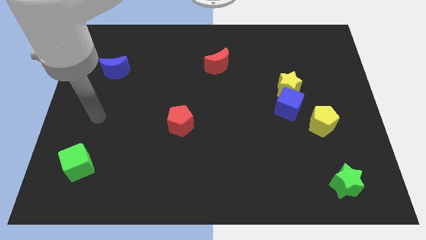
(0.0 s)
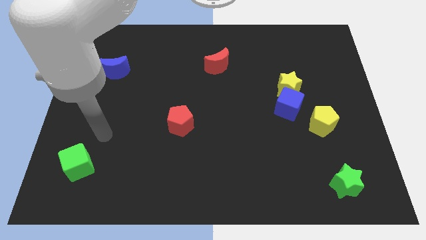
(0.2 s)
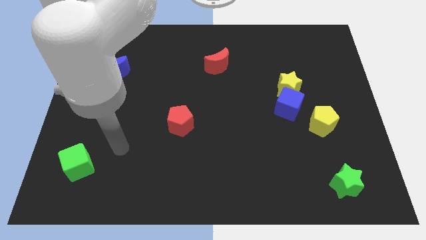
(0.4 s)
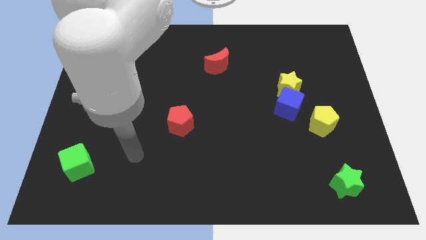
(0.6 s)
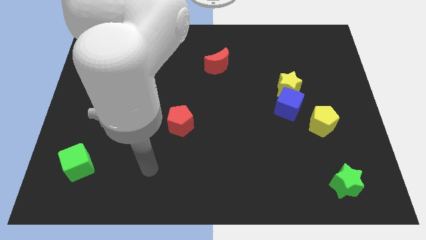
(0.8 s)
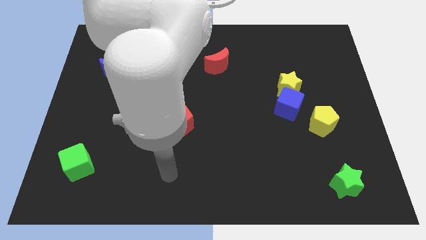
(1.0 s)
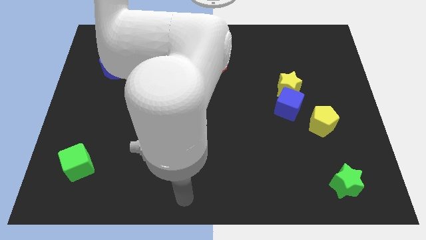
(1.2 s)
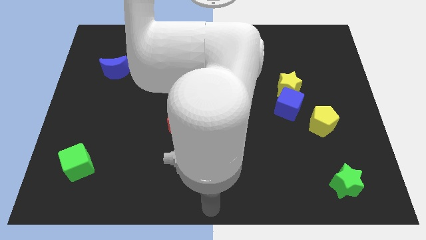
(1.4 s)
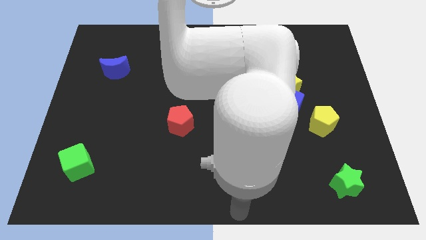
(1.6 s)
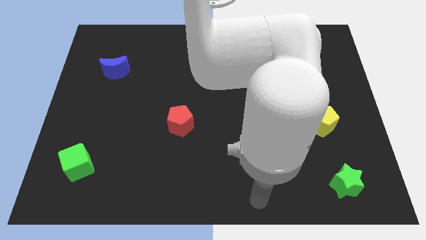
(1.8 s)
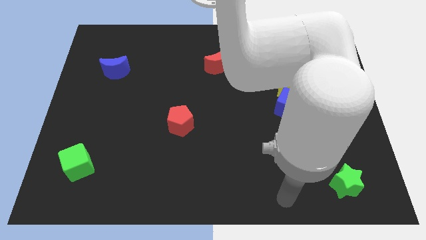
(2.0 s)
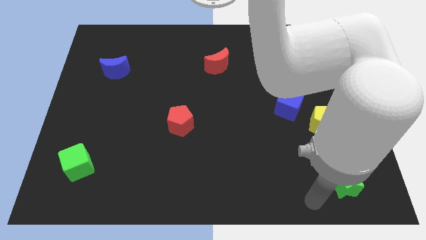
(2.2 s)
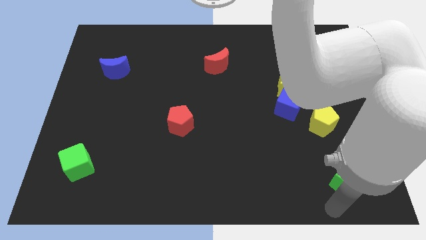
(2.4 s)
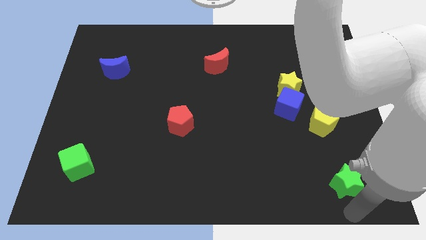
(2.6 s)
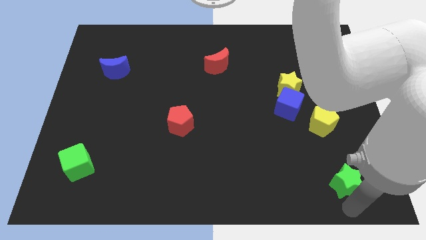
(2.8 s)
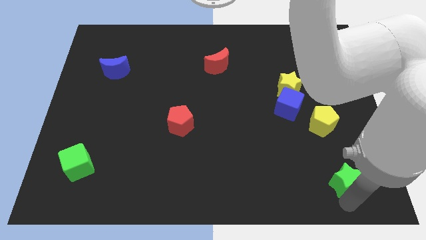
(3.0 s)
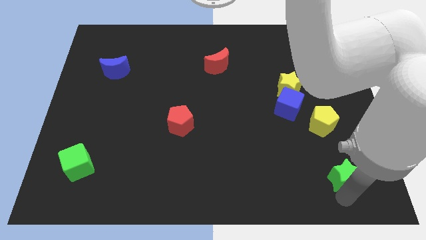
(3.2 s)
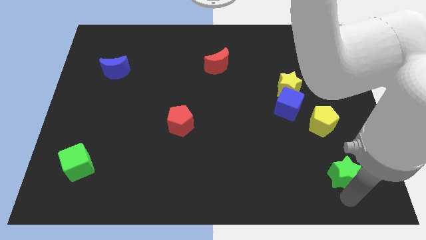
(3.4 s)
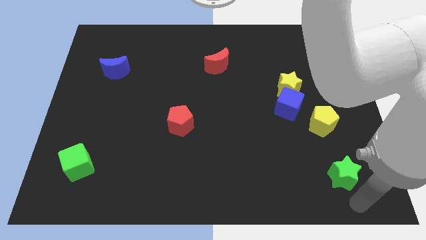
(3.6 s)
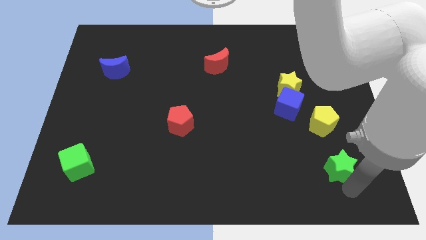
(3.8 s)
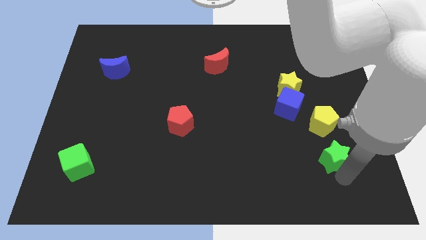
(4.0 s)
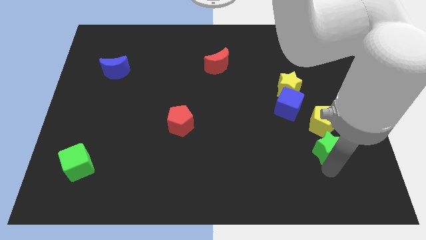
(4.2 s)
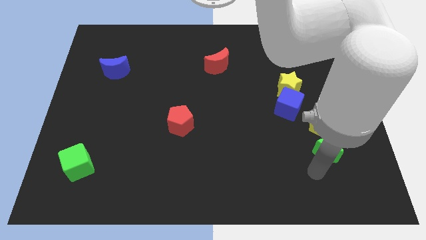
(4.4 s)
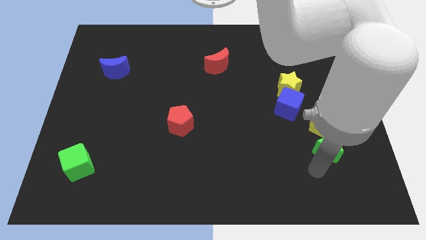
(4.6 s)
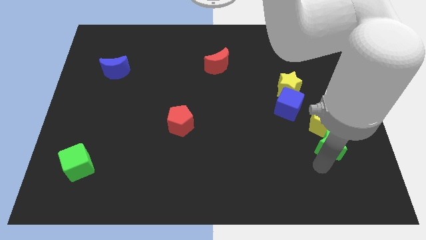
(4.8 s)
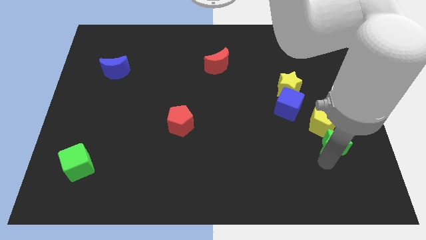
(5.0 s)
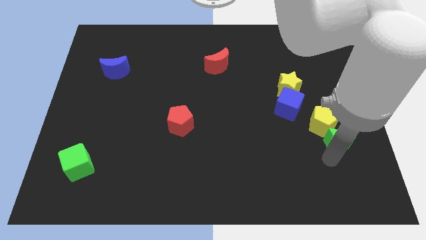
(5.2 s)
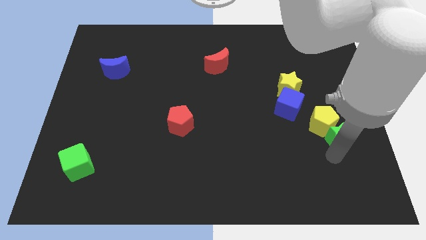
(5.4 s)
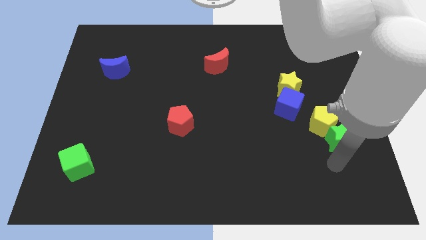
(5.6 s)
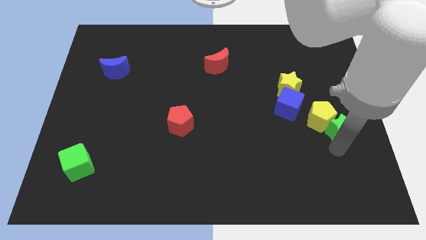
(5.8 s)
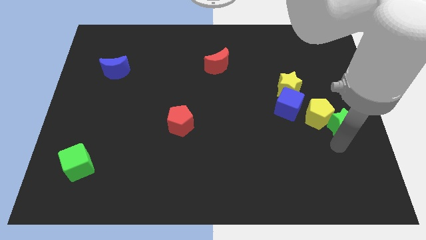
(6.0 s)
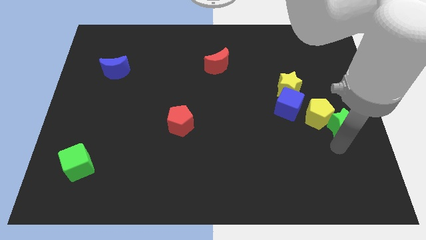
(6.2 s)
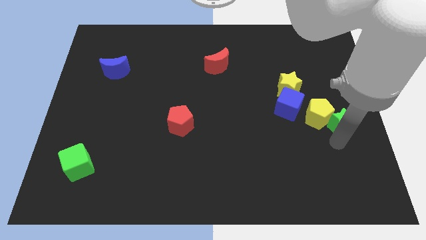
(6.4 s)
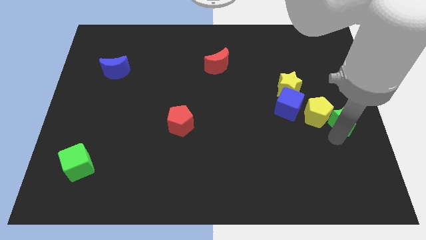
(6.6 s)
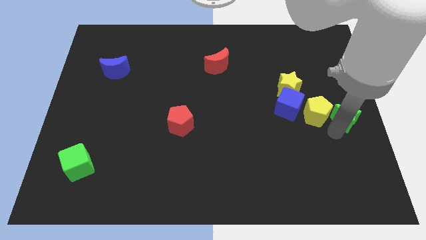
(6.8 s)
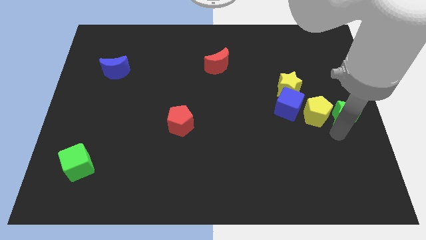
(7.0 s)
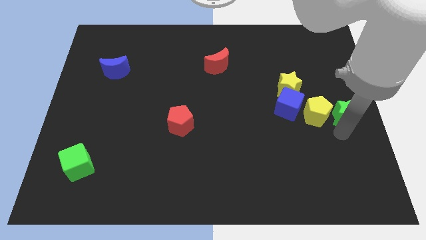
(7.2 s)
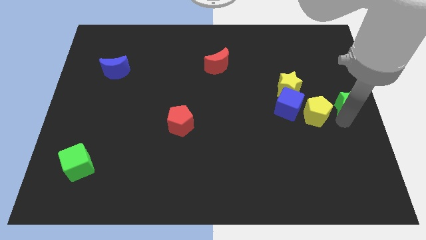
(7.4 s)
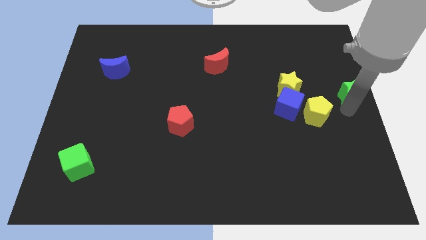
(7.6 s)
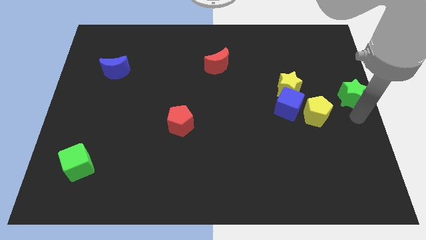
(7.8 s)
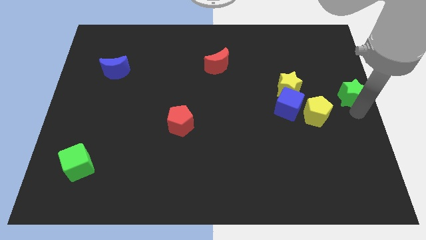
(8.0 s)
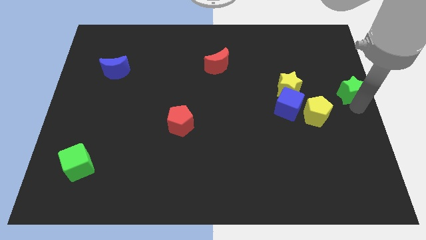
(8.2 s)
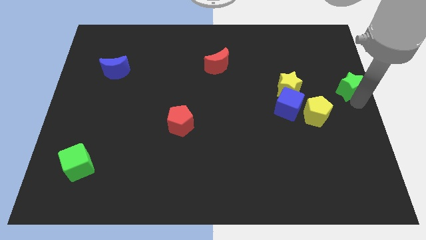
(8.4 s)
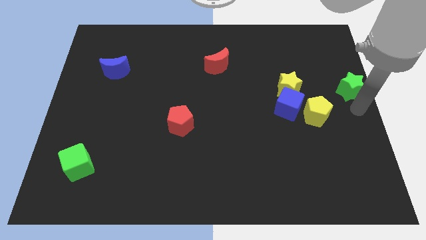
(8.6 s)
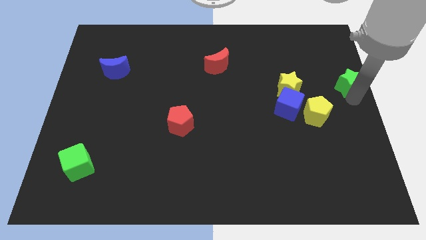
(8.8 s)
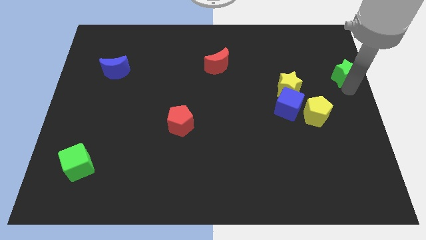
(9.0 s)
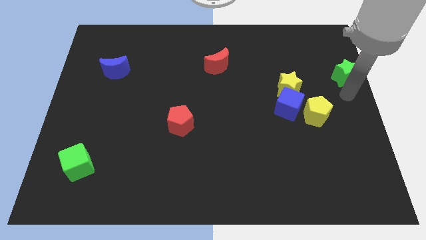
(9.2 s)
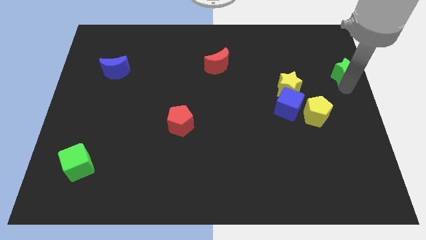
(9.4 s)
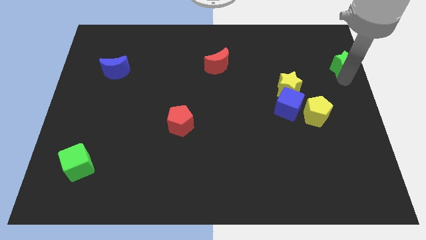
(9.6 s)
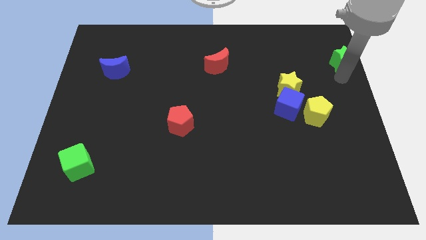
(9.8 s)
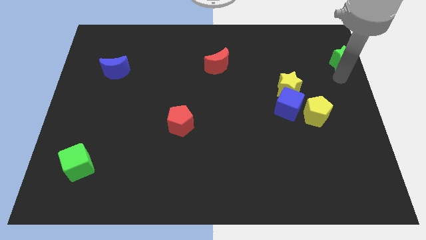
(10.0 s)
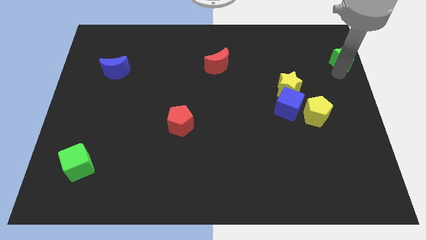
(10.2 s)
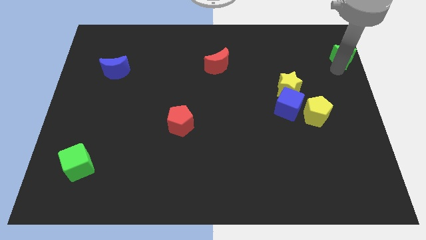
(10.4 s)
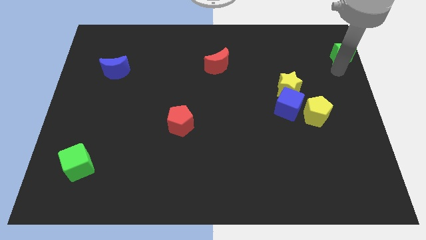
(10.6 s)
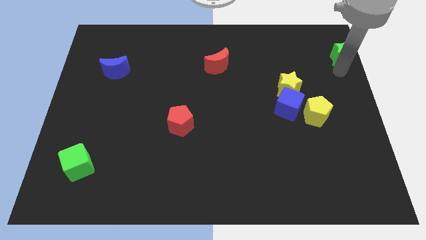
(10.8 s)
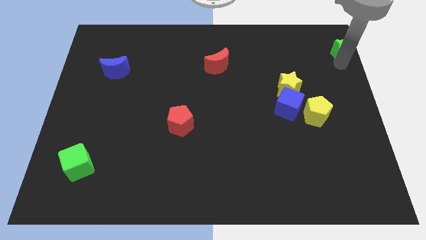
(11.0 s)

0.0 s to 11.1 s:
push the green star to the top right corner

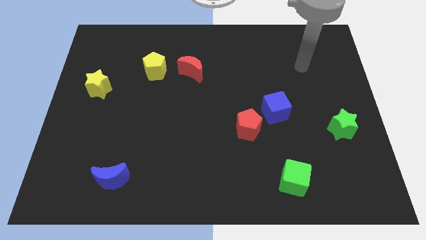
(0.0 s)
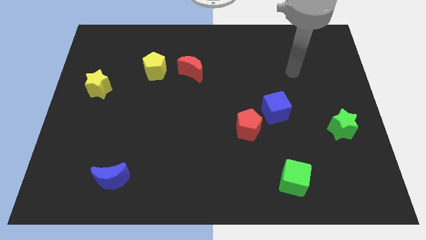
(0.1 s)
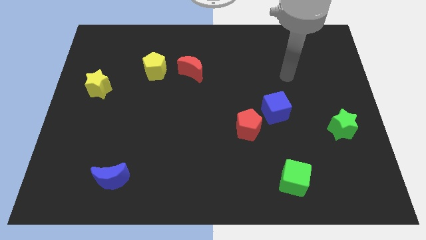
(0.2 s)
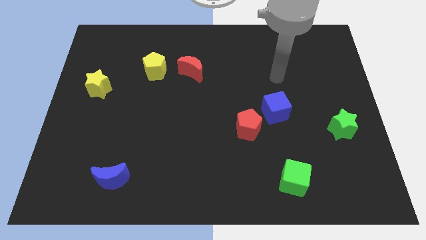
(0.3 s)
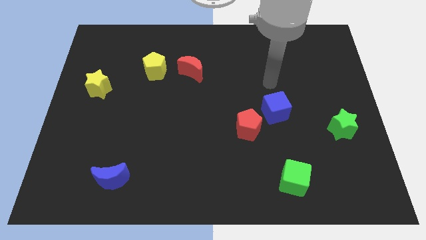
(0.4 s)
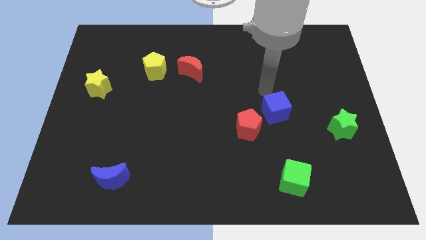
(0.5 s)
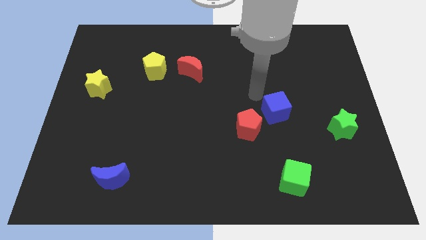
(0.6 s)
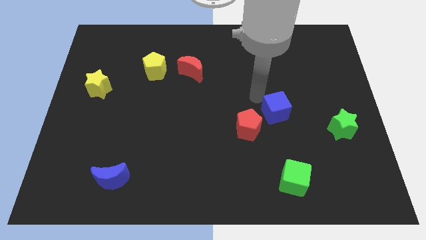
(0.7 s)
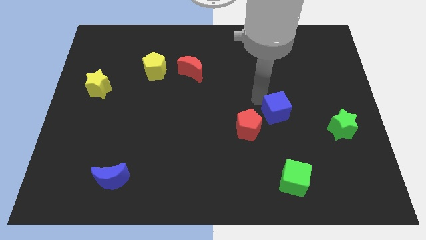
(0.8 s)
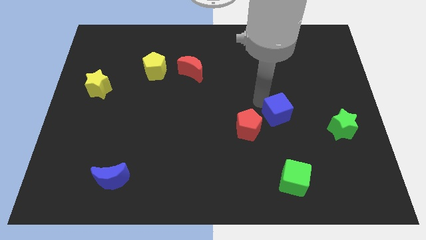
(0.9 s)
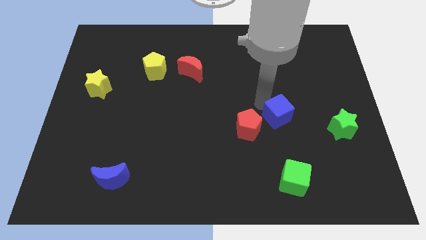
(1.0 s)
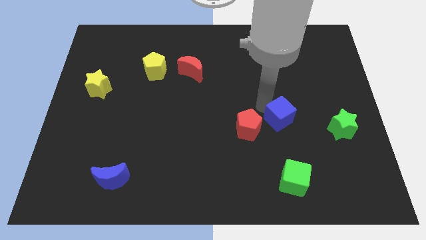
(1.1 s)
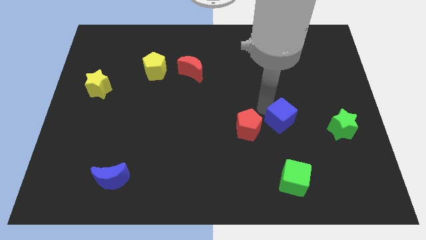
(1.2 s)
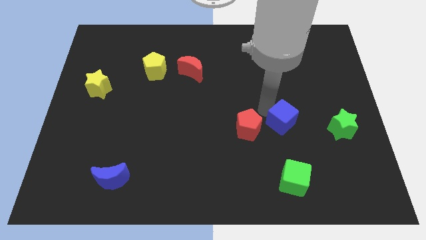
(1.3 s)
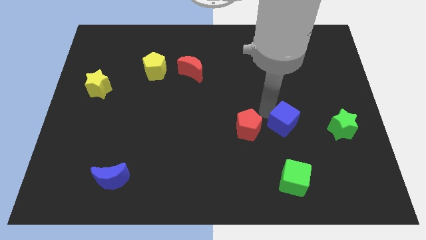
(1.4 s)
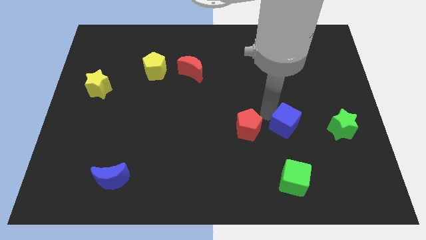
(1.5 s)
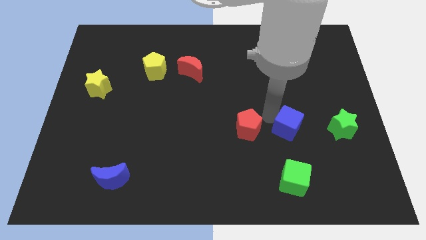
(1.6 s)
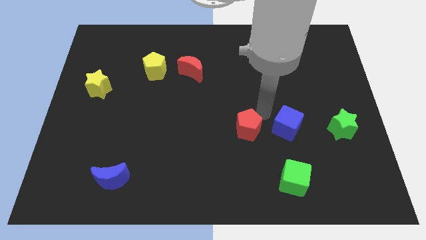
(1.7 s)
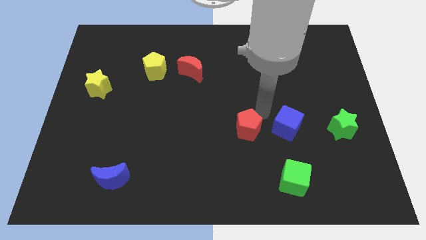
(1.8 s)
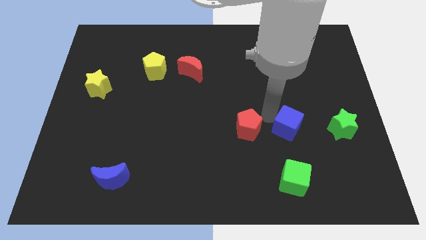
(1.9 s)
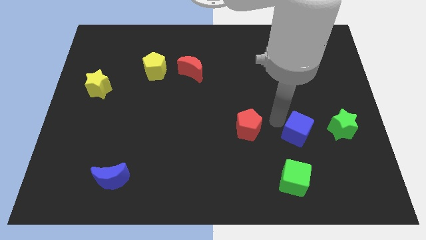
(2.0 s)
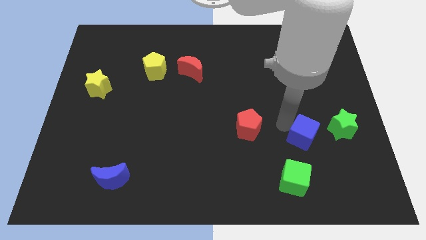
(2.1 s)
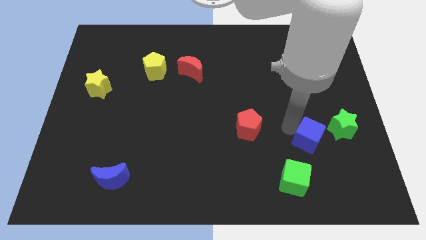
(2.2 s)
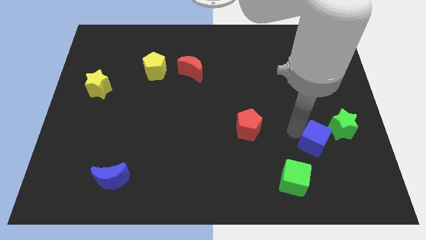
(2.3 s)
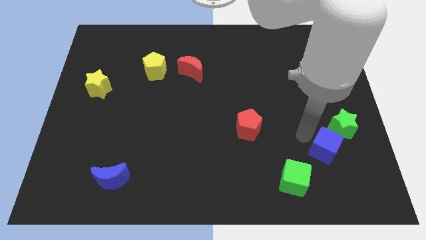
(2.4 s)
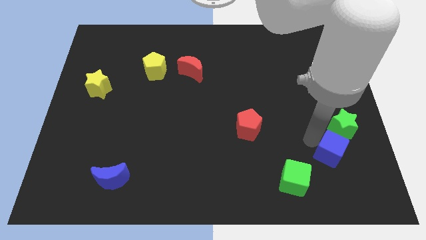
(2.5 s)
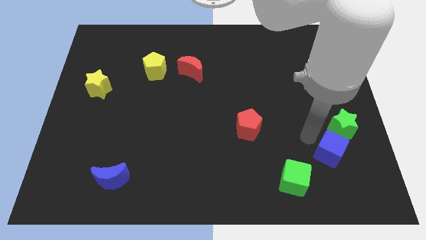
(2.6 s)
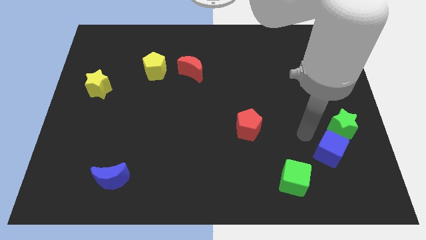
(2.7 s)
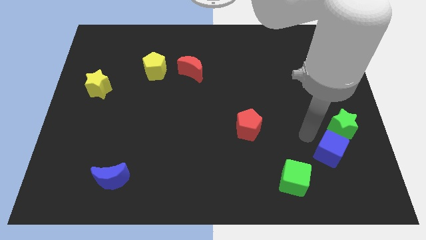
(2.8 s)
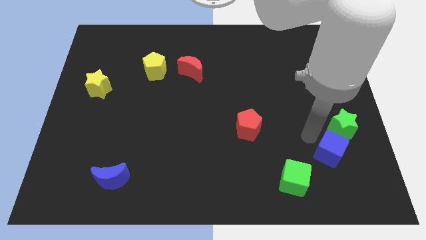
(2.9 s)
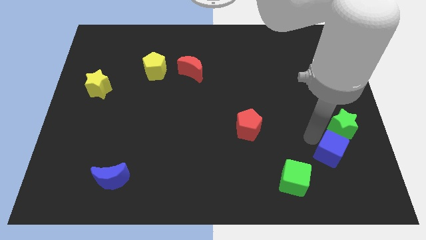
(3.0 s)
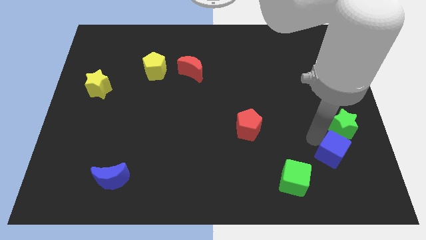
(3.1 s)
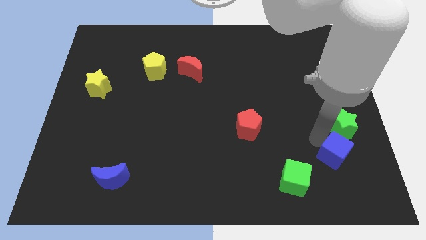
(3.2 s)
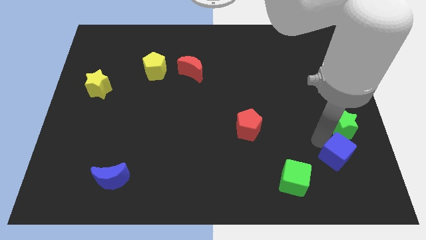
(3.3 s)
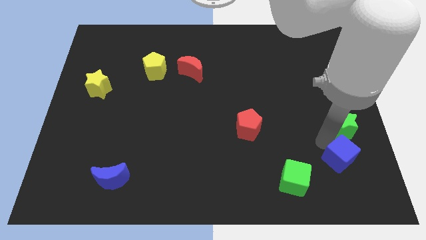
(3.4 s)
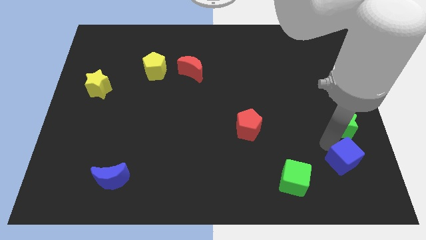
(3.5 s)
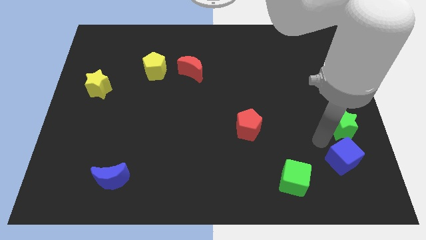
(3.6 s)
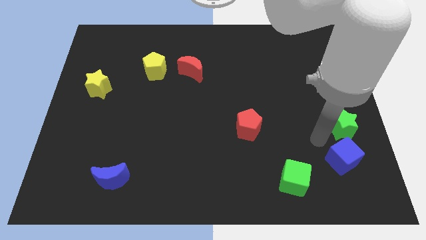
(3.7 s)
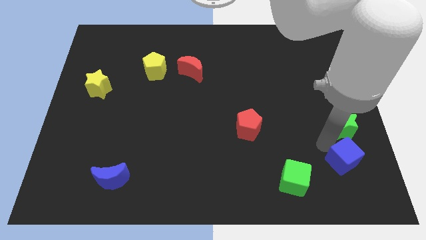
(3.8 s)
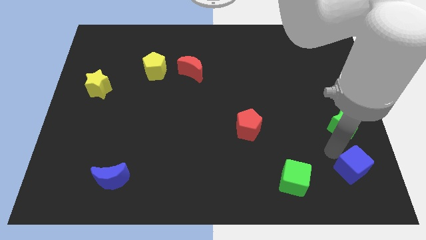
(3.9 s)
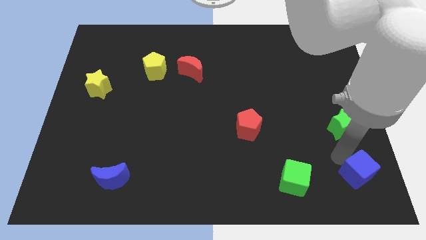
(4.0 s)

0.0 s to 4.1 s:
put the blue cube to the bottom right corner
